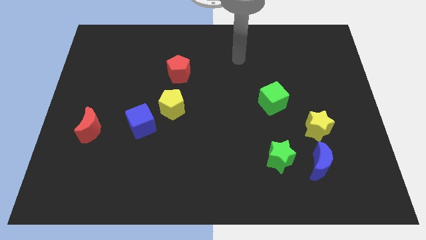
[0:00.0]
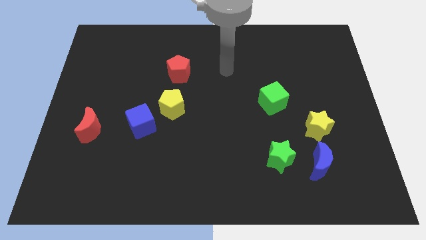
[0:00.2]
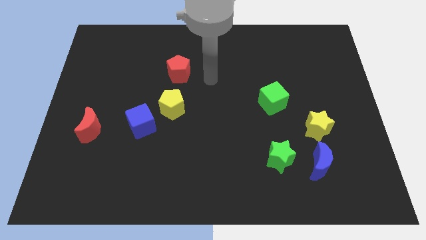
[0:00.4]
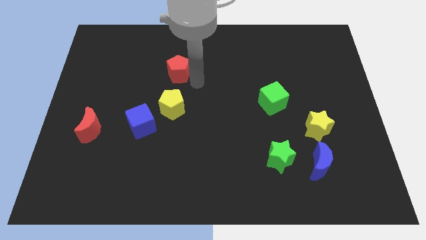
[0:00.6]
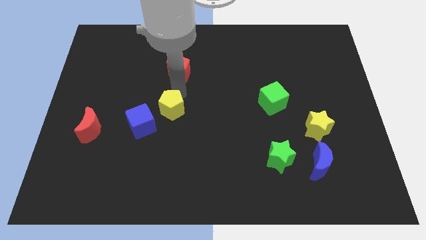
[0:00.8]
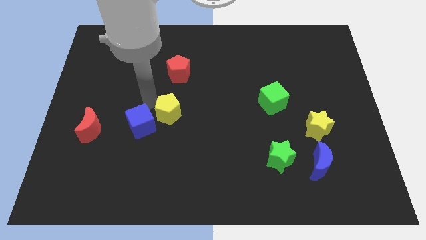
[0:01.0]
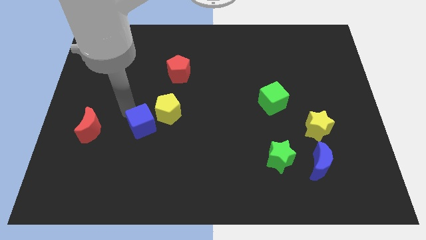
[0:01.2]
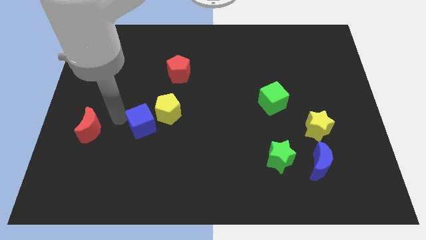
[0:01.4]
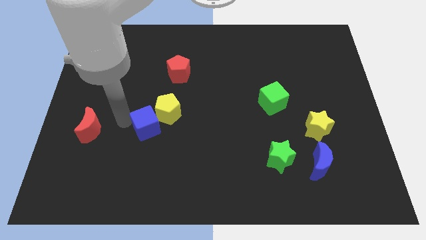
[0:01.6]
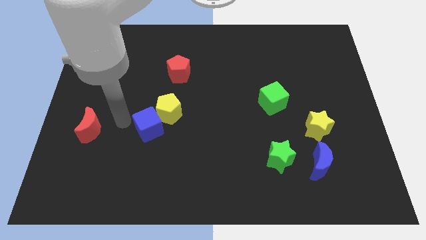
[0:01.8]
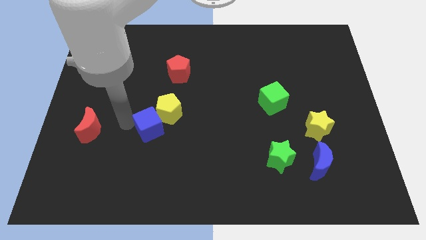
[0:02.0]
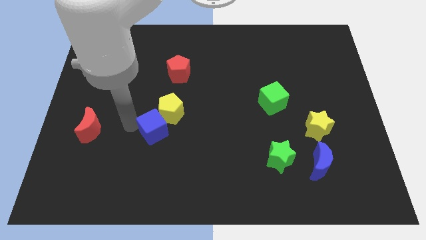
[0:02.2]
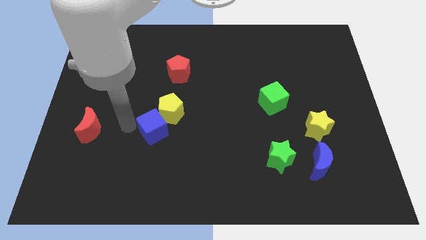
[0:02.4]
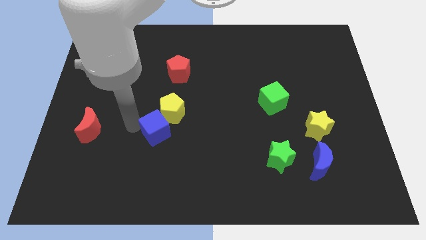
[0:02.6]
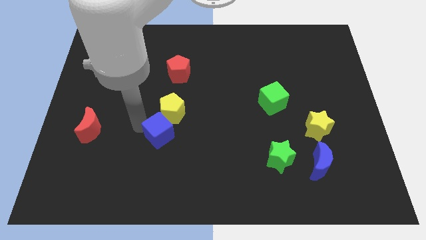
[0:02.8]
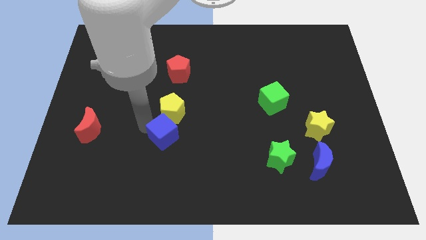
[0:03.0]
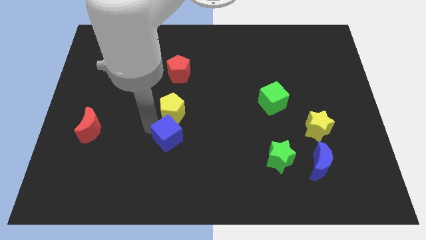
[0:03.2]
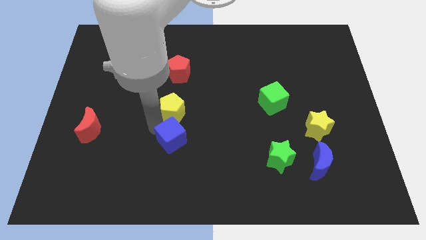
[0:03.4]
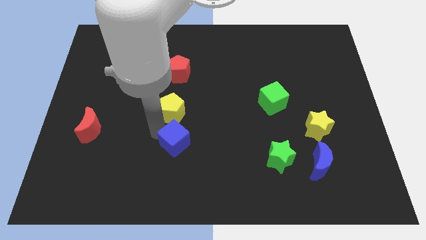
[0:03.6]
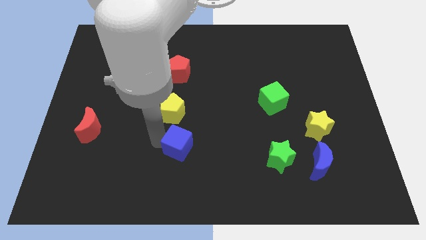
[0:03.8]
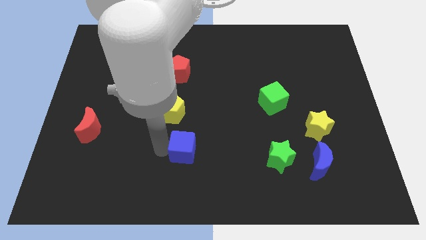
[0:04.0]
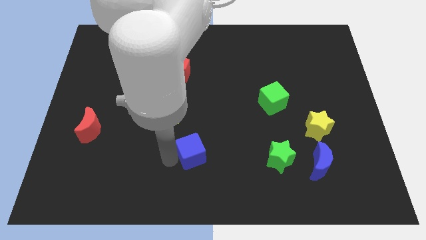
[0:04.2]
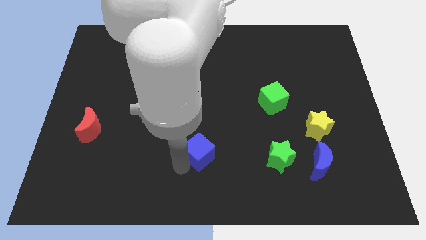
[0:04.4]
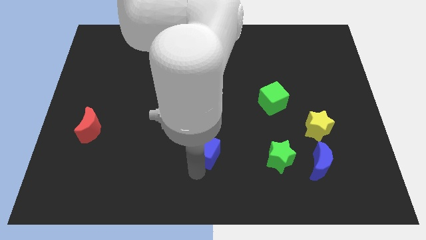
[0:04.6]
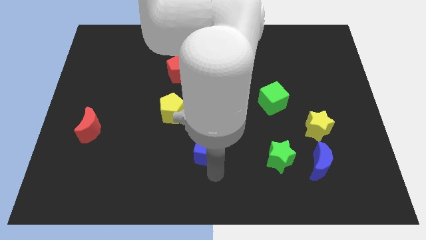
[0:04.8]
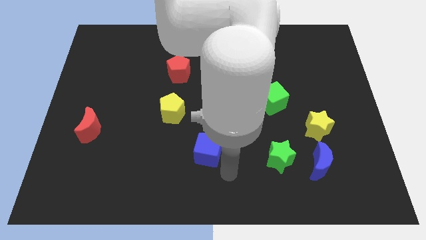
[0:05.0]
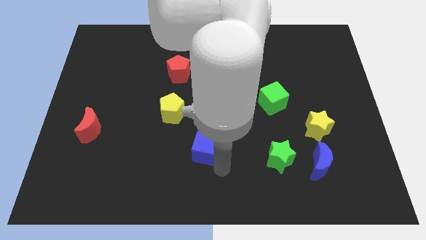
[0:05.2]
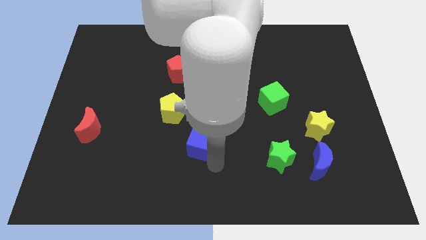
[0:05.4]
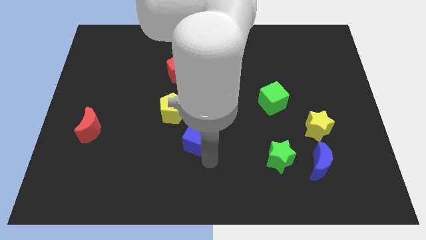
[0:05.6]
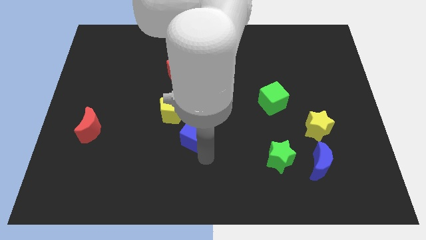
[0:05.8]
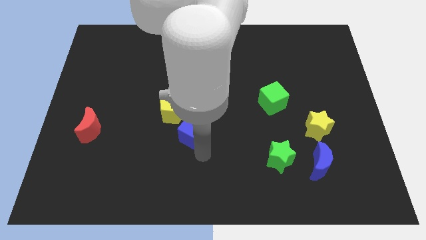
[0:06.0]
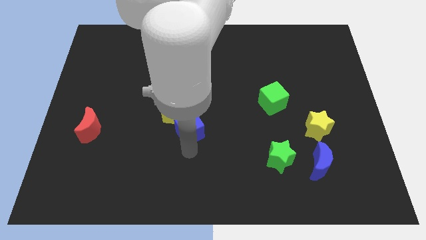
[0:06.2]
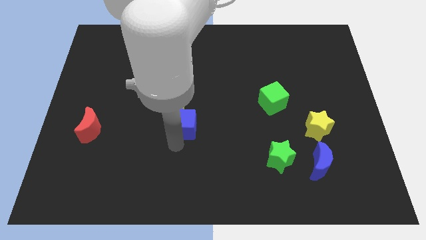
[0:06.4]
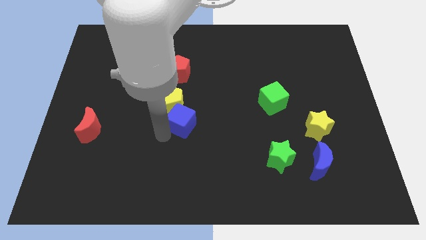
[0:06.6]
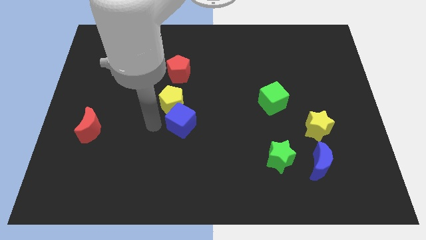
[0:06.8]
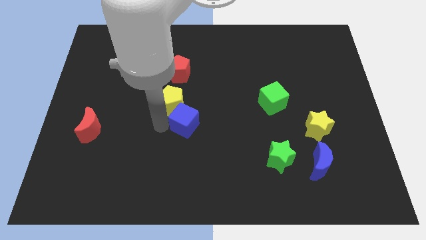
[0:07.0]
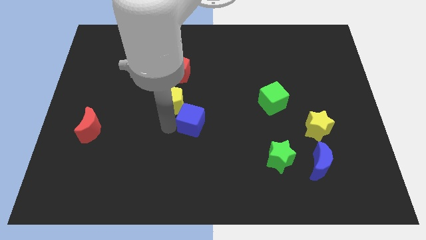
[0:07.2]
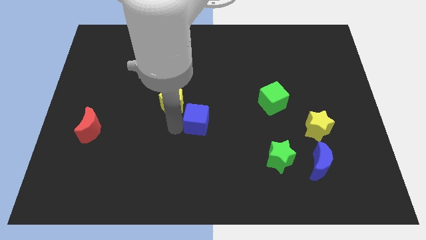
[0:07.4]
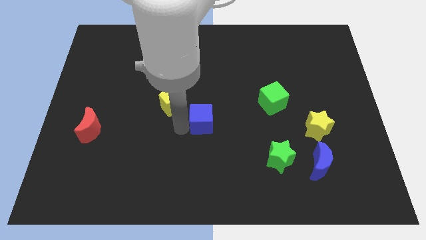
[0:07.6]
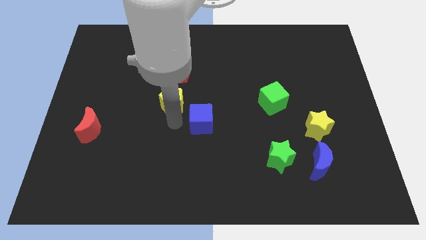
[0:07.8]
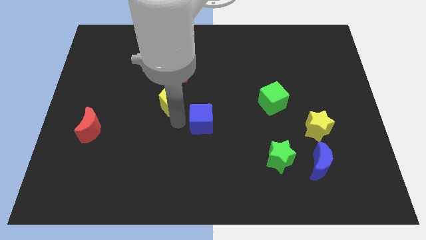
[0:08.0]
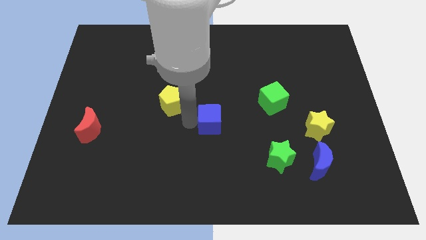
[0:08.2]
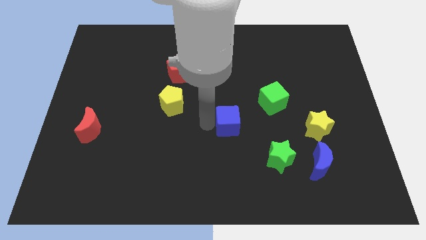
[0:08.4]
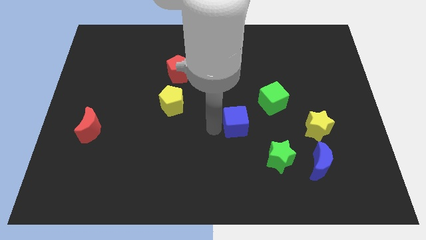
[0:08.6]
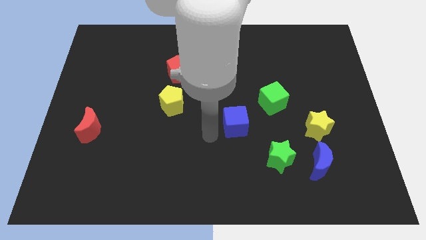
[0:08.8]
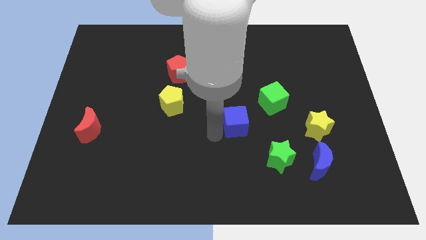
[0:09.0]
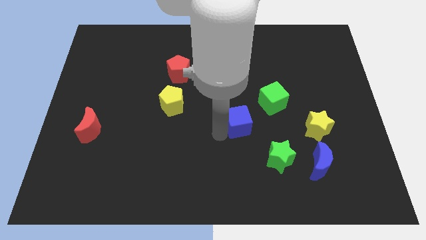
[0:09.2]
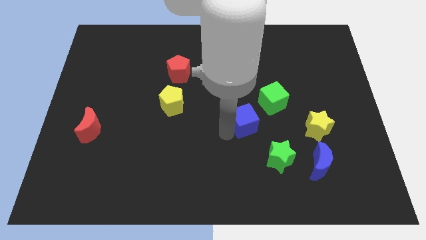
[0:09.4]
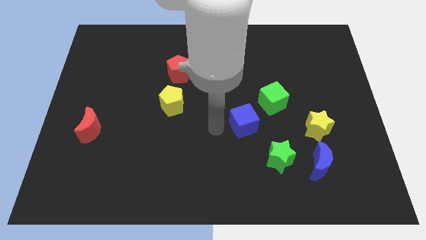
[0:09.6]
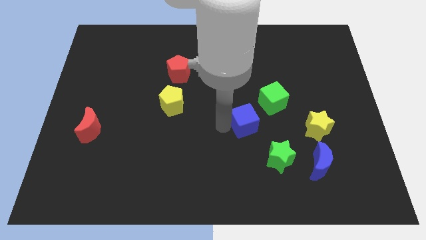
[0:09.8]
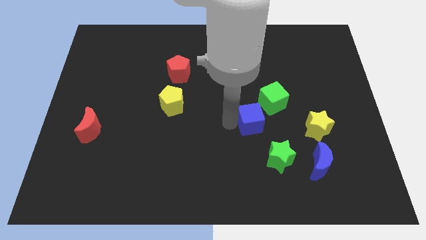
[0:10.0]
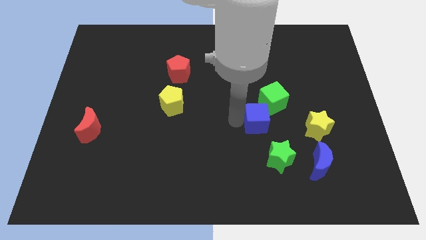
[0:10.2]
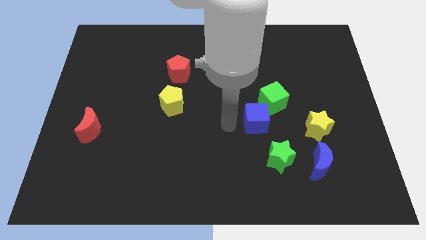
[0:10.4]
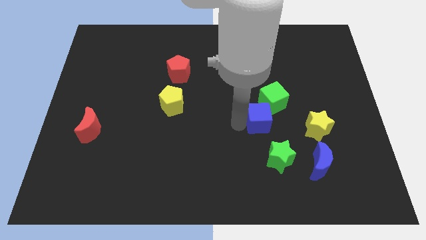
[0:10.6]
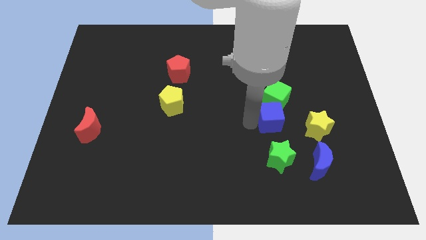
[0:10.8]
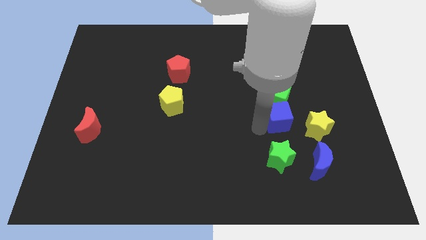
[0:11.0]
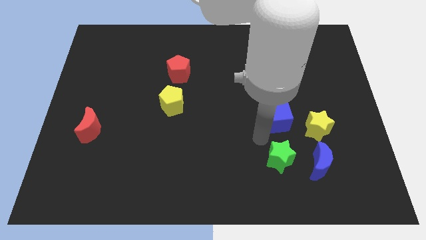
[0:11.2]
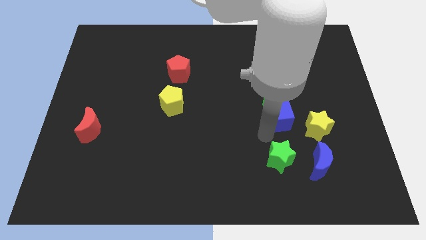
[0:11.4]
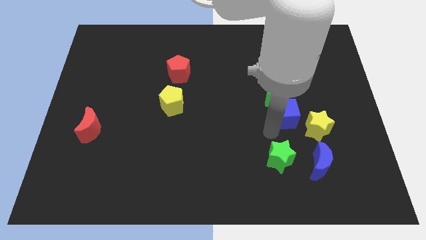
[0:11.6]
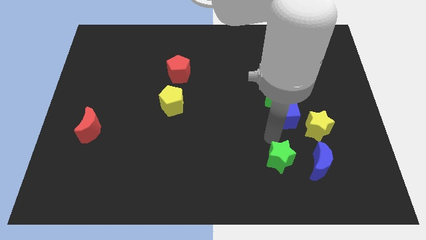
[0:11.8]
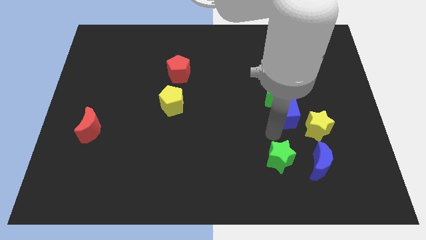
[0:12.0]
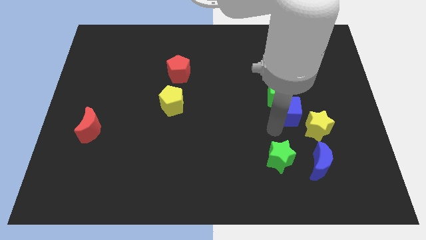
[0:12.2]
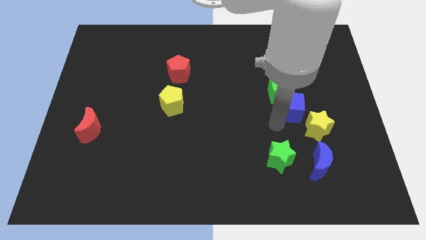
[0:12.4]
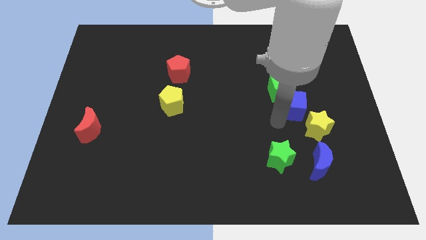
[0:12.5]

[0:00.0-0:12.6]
move the blue cube above the yellow star
